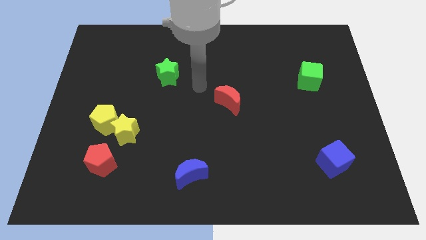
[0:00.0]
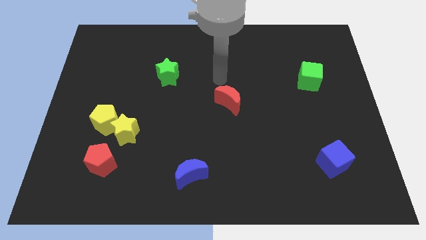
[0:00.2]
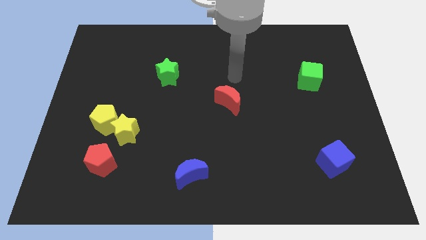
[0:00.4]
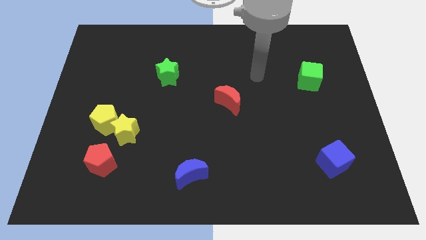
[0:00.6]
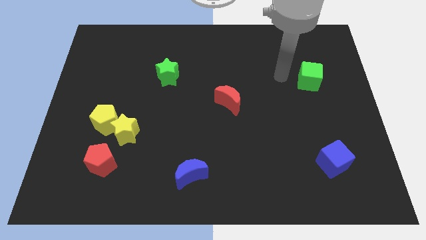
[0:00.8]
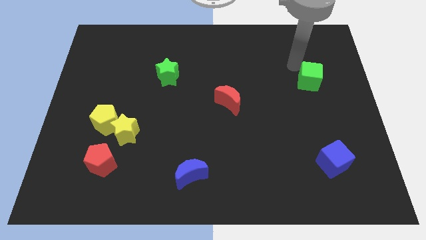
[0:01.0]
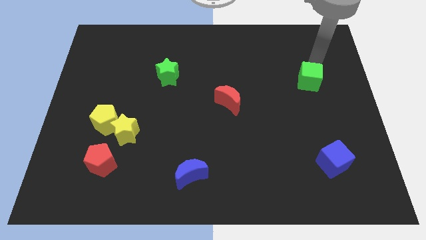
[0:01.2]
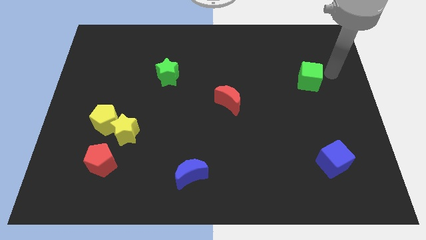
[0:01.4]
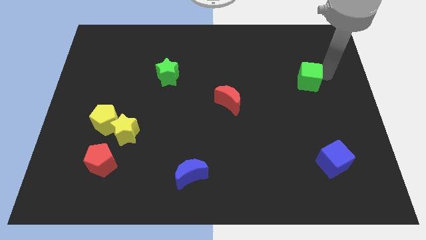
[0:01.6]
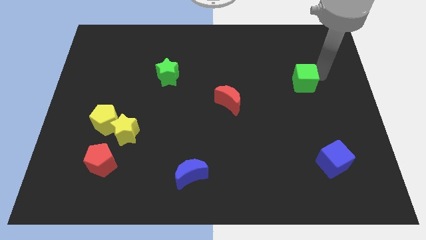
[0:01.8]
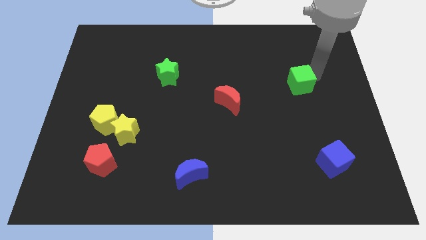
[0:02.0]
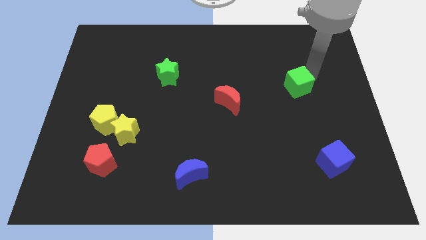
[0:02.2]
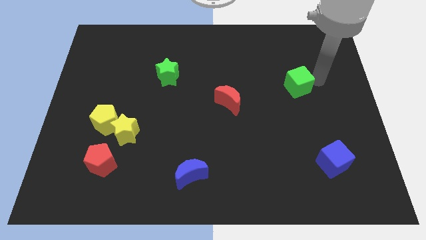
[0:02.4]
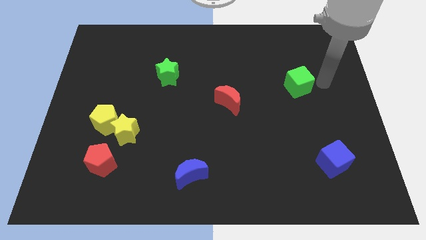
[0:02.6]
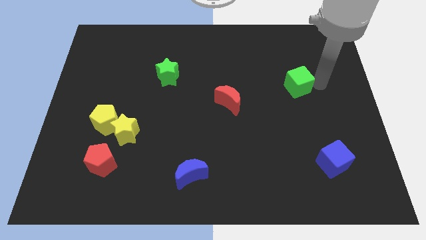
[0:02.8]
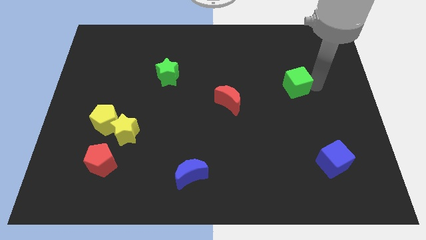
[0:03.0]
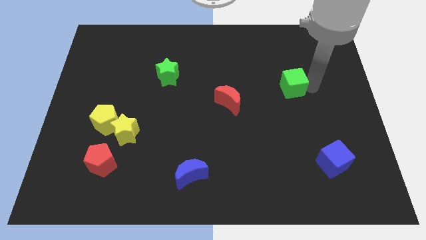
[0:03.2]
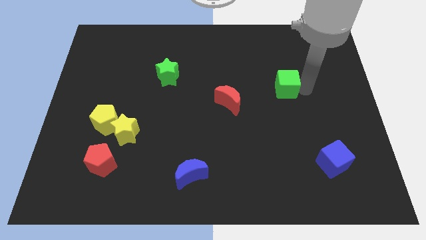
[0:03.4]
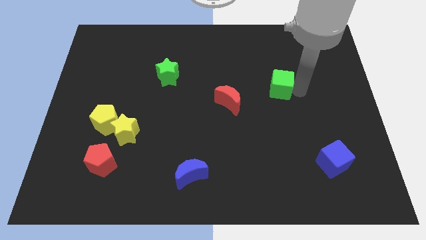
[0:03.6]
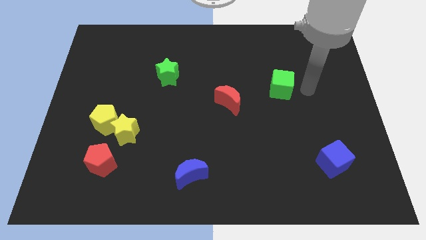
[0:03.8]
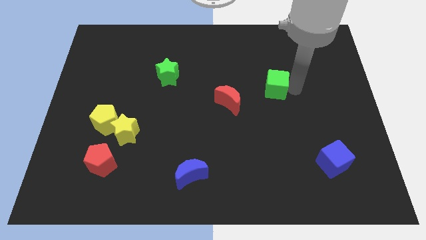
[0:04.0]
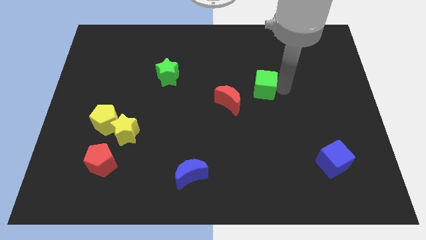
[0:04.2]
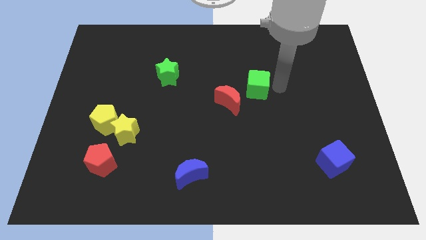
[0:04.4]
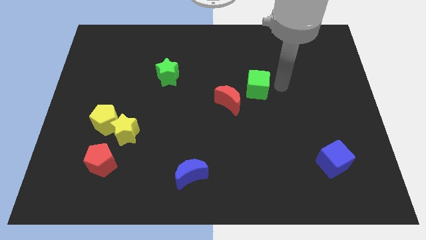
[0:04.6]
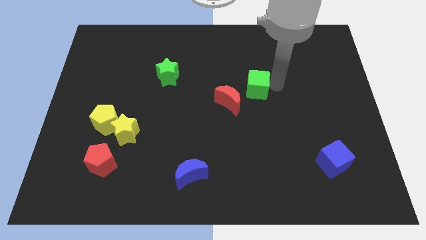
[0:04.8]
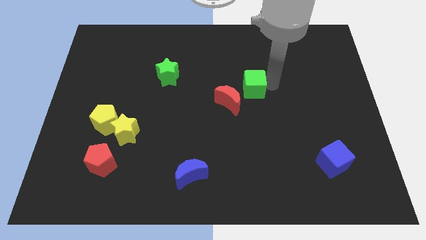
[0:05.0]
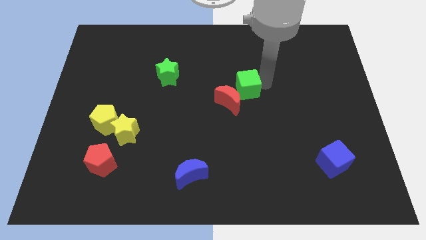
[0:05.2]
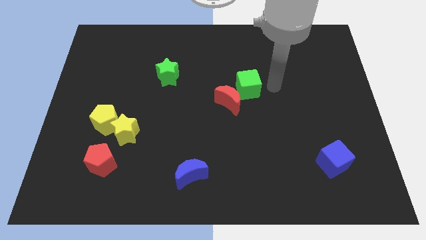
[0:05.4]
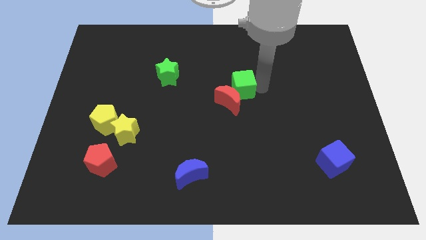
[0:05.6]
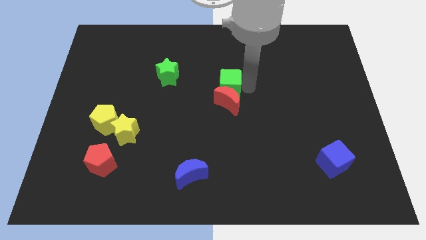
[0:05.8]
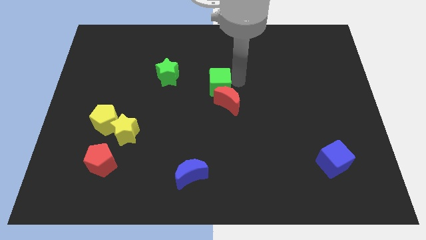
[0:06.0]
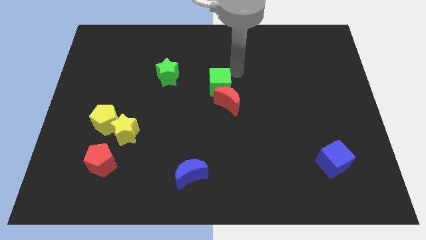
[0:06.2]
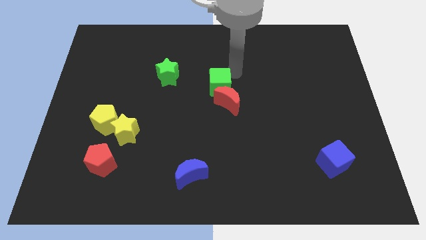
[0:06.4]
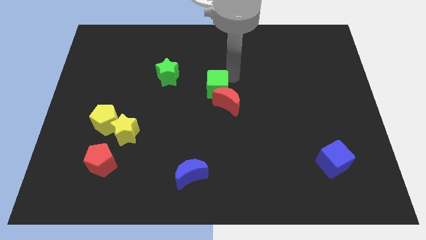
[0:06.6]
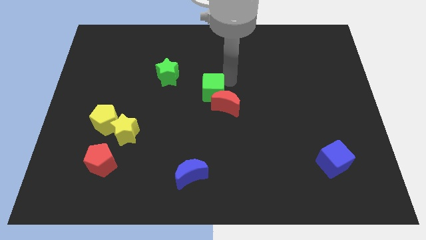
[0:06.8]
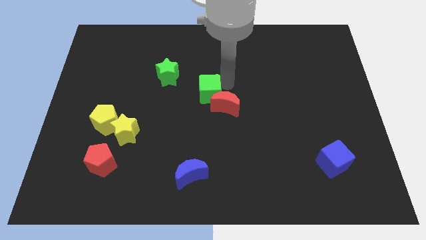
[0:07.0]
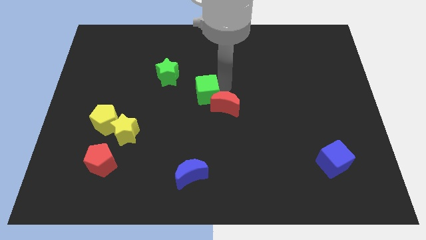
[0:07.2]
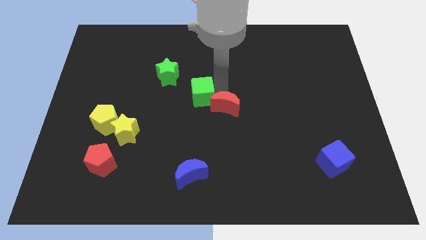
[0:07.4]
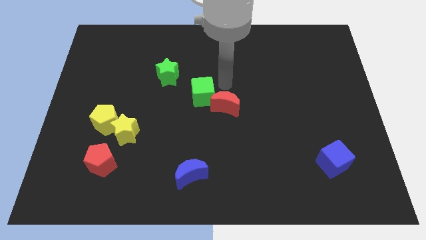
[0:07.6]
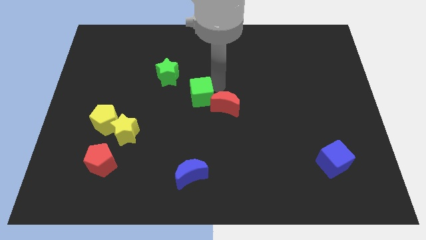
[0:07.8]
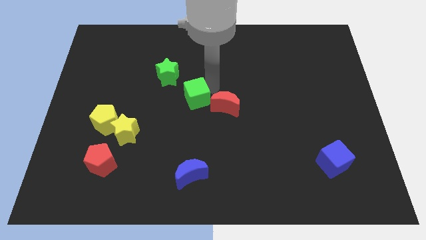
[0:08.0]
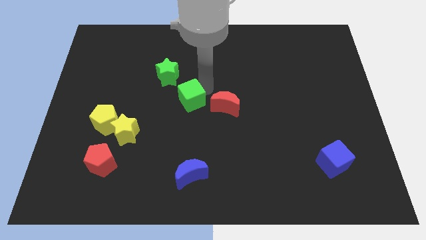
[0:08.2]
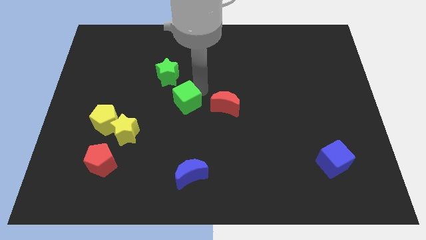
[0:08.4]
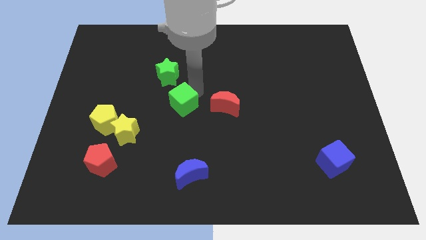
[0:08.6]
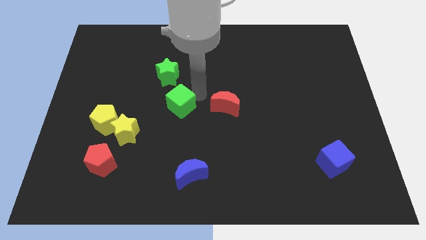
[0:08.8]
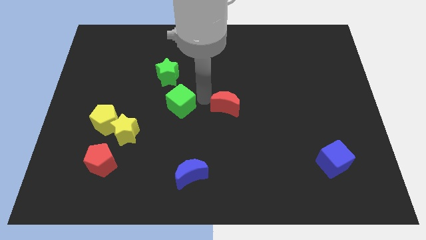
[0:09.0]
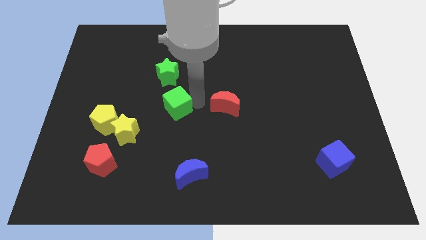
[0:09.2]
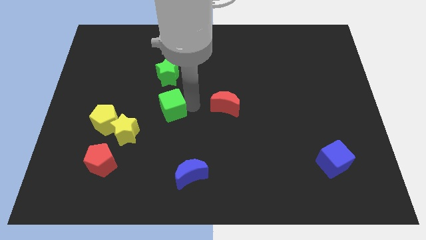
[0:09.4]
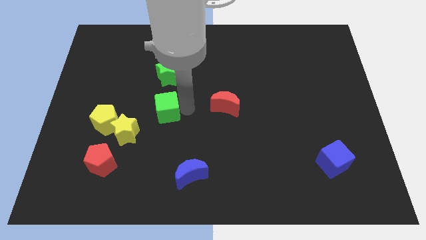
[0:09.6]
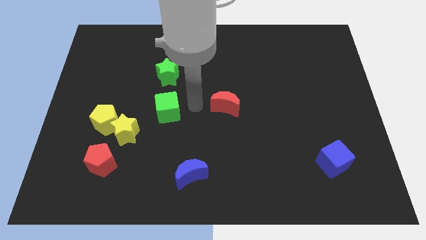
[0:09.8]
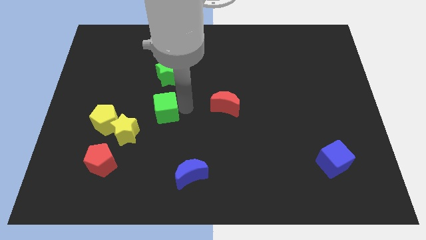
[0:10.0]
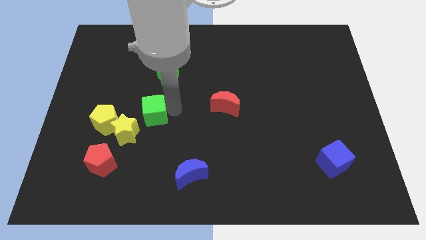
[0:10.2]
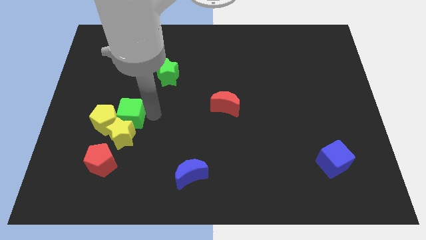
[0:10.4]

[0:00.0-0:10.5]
move the green cube towards the yellow pentagon

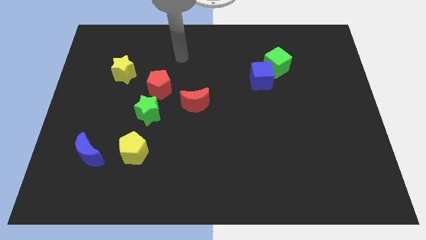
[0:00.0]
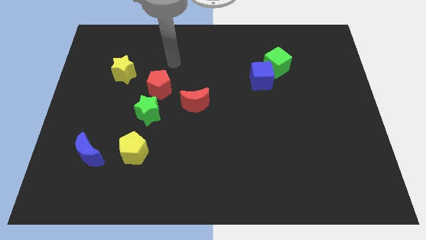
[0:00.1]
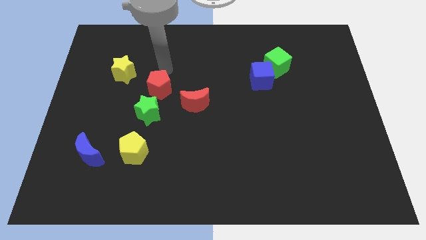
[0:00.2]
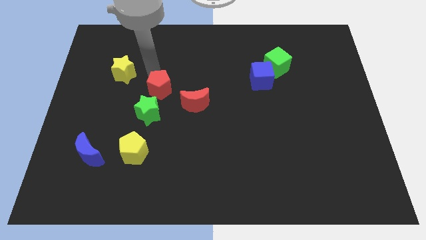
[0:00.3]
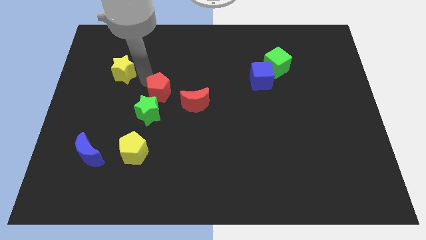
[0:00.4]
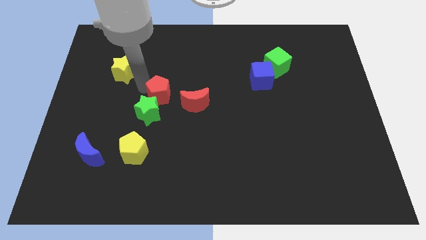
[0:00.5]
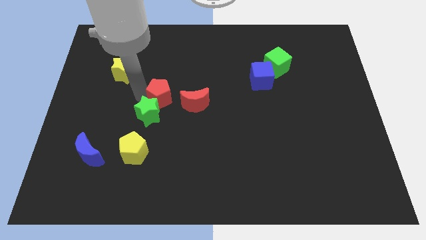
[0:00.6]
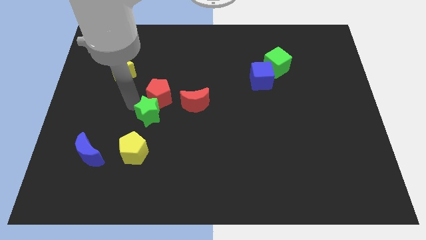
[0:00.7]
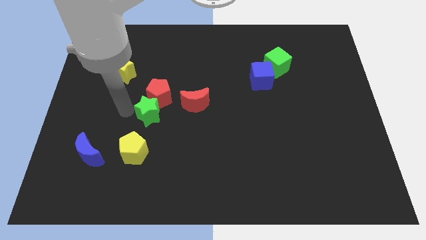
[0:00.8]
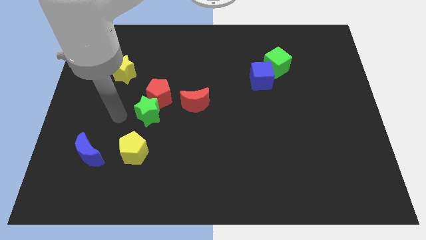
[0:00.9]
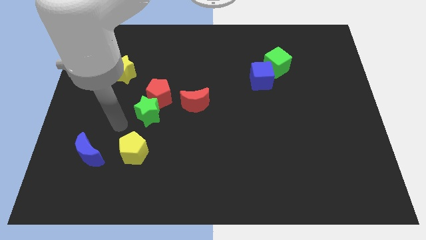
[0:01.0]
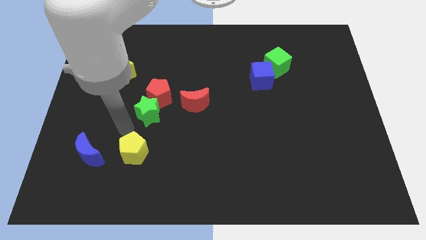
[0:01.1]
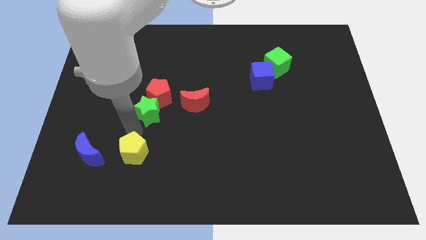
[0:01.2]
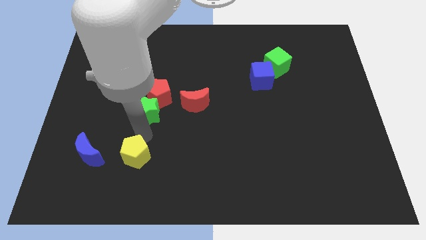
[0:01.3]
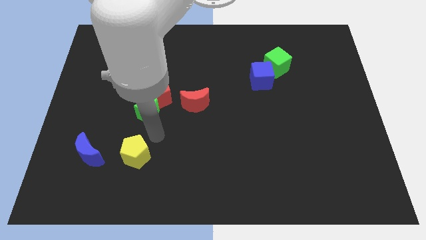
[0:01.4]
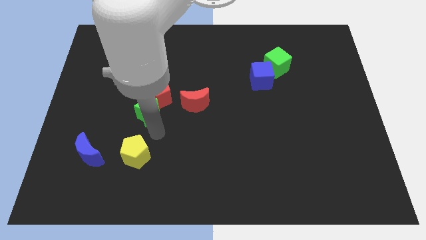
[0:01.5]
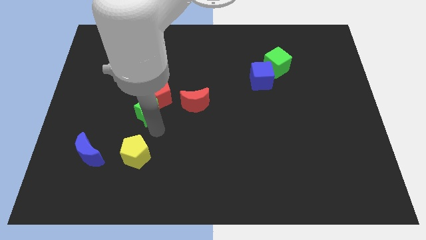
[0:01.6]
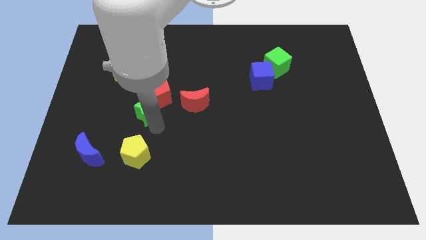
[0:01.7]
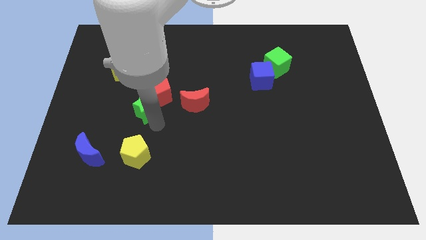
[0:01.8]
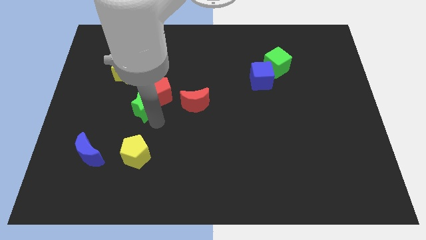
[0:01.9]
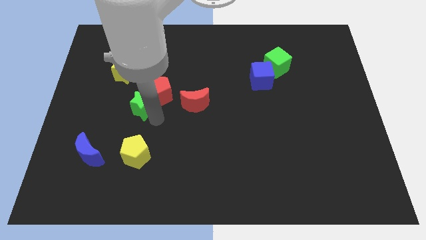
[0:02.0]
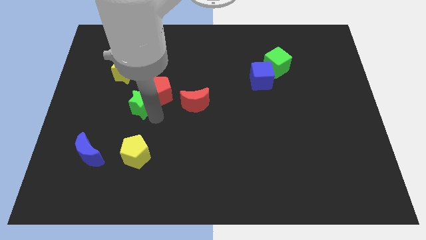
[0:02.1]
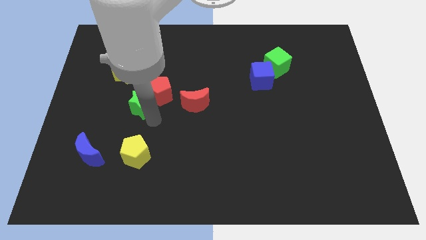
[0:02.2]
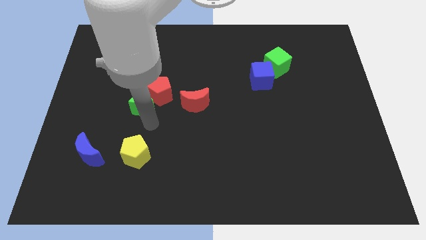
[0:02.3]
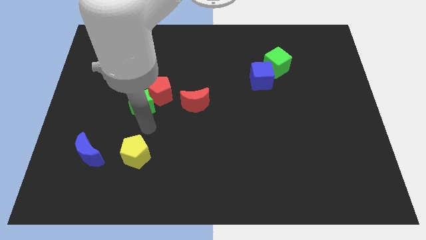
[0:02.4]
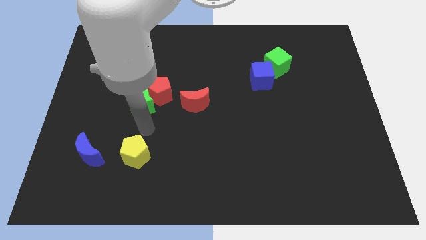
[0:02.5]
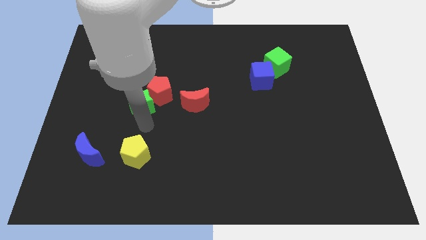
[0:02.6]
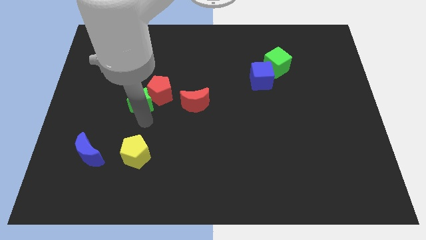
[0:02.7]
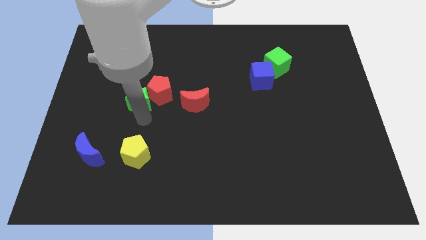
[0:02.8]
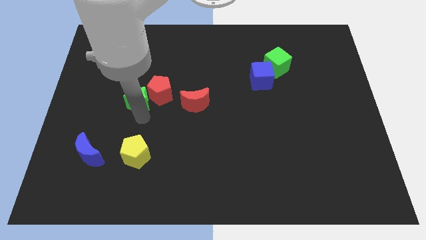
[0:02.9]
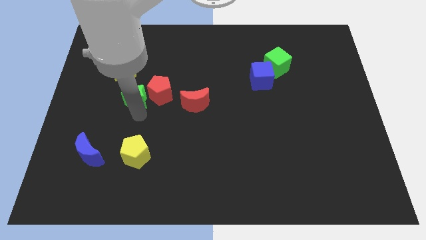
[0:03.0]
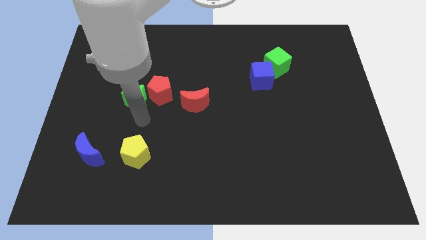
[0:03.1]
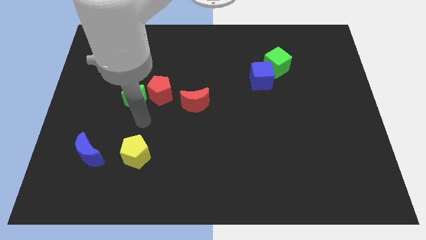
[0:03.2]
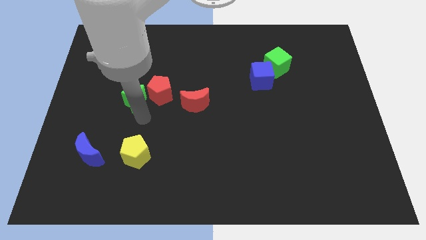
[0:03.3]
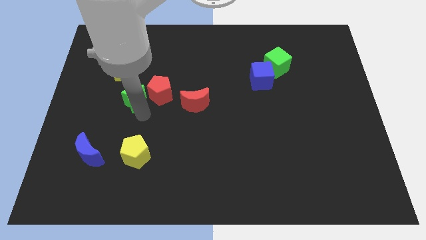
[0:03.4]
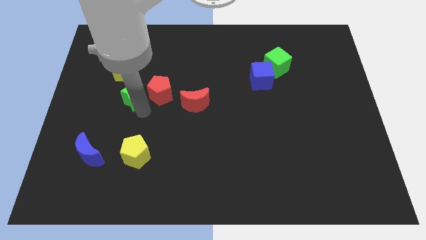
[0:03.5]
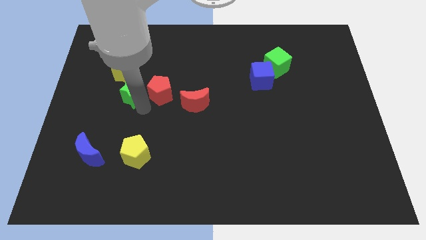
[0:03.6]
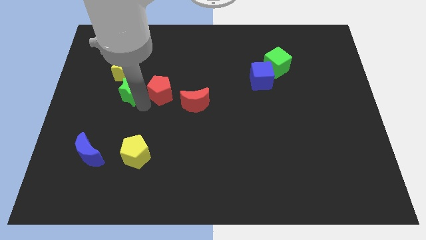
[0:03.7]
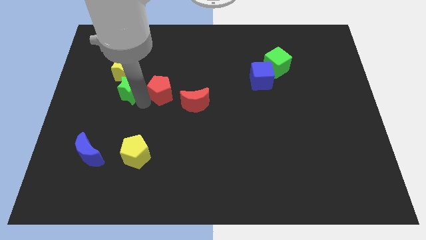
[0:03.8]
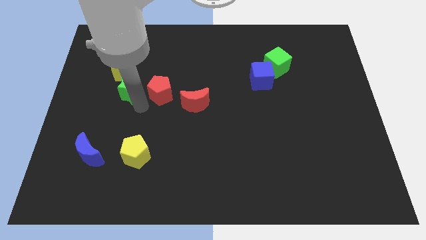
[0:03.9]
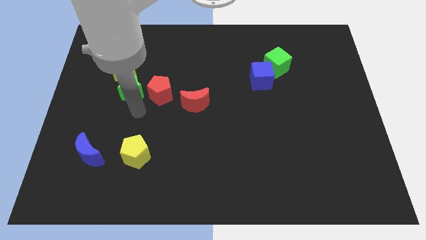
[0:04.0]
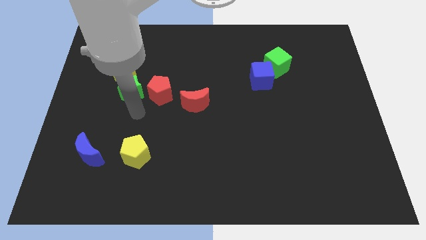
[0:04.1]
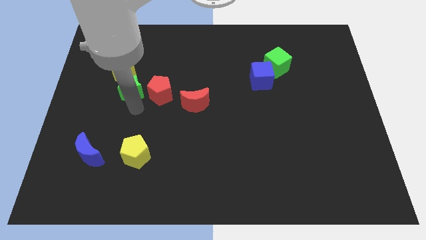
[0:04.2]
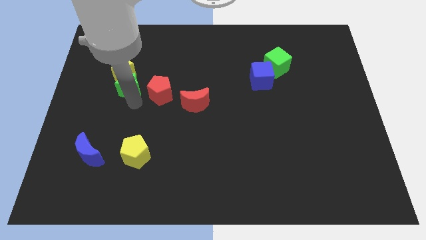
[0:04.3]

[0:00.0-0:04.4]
slide the green star towards the yellow star
